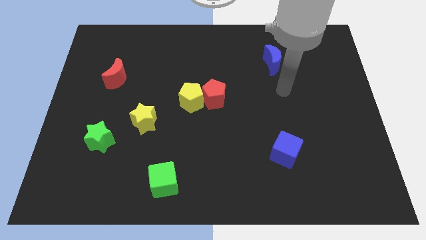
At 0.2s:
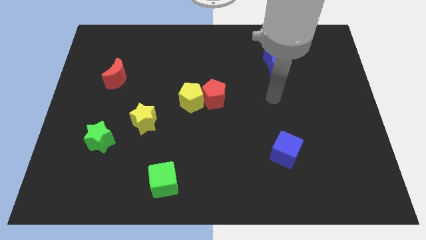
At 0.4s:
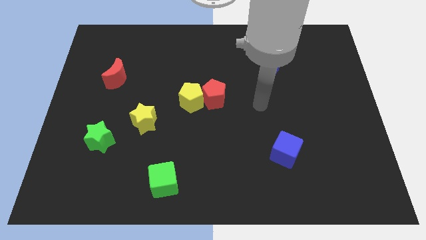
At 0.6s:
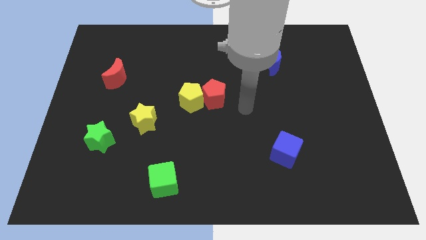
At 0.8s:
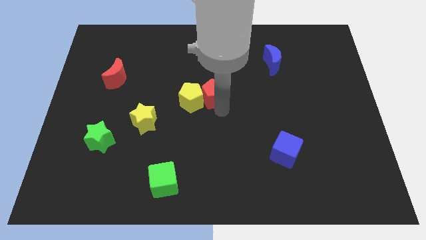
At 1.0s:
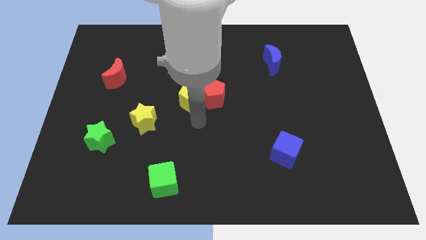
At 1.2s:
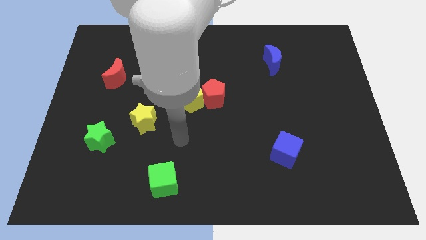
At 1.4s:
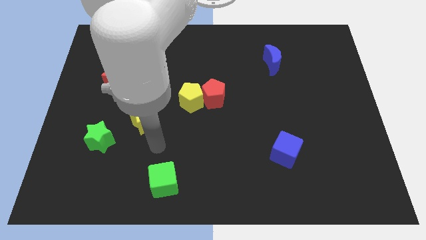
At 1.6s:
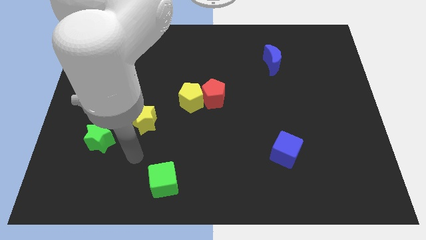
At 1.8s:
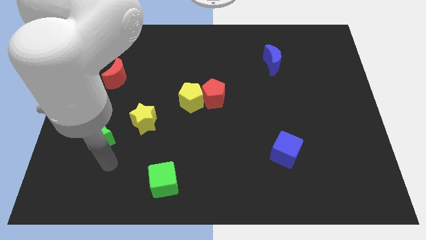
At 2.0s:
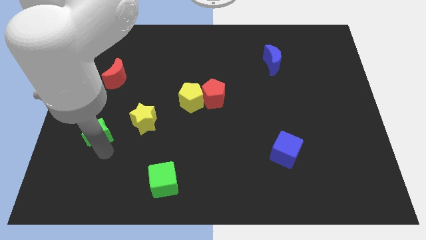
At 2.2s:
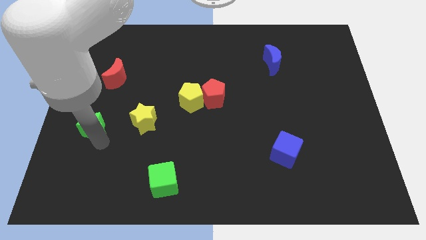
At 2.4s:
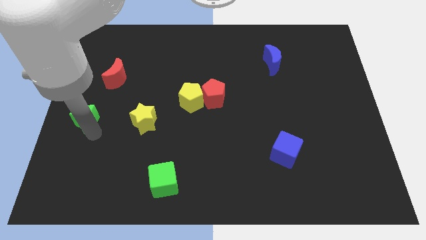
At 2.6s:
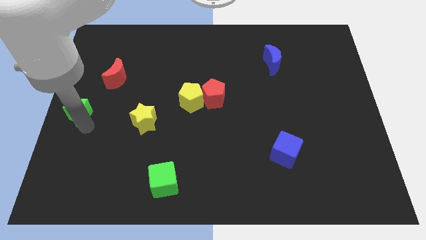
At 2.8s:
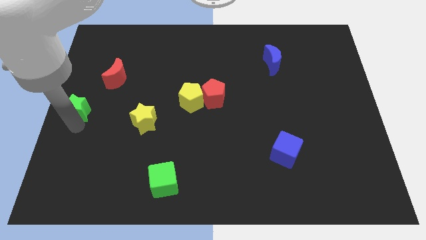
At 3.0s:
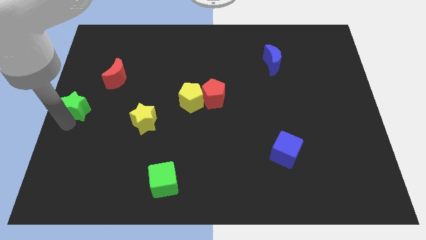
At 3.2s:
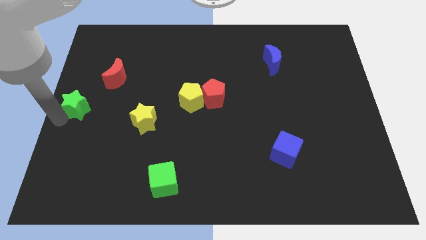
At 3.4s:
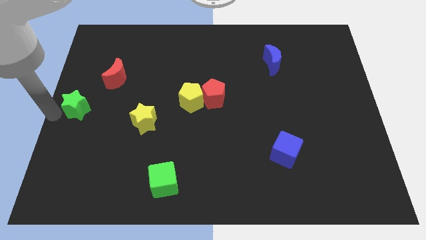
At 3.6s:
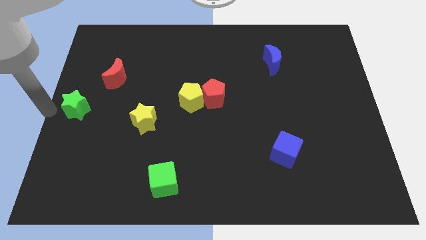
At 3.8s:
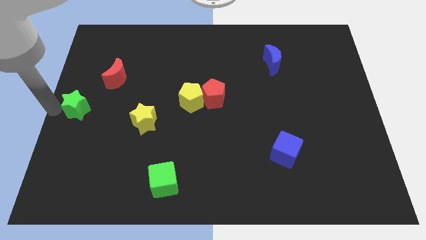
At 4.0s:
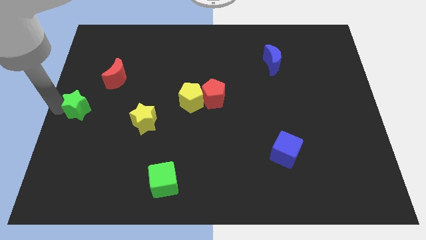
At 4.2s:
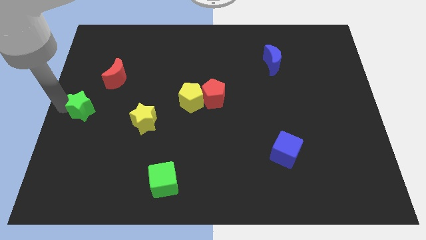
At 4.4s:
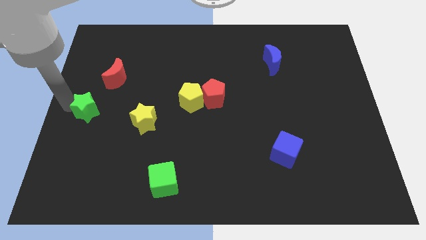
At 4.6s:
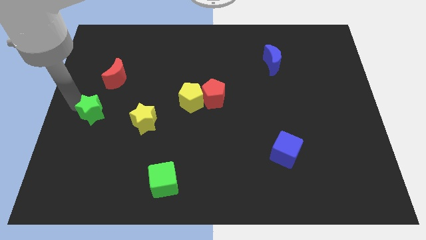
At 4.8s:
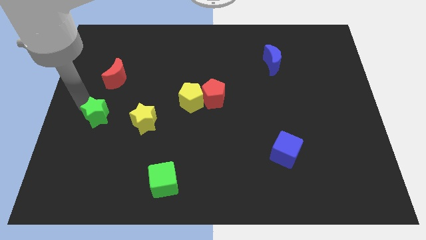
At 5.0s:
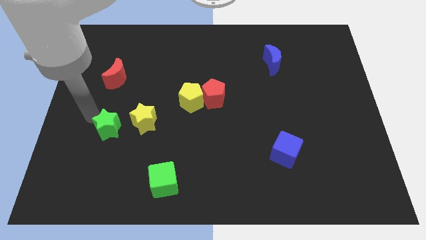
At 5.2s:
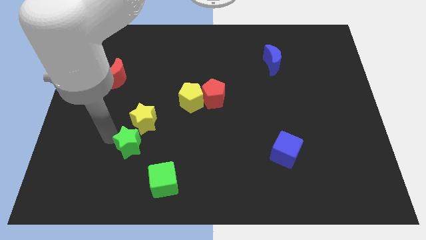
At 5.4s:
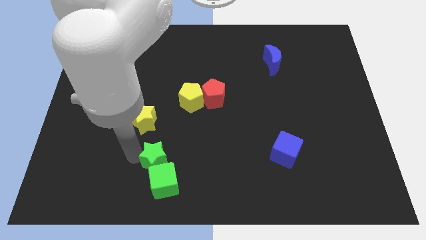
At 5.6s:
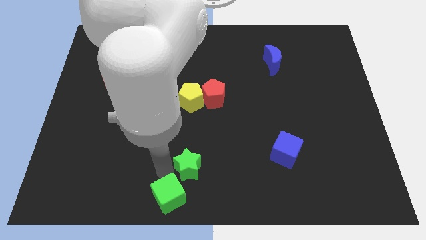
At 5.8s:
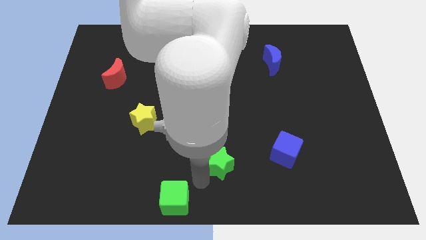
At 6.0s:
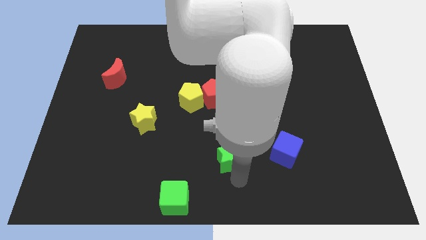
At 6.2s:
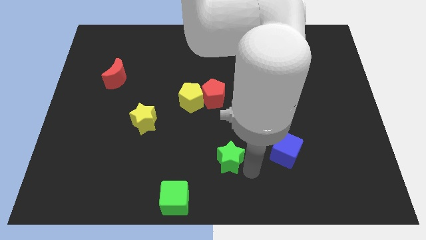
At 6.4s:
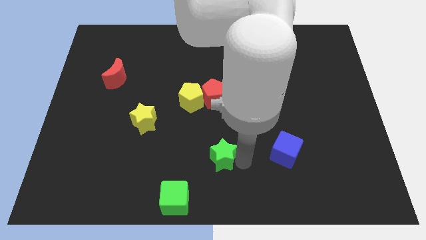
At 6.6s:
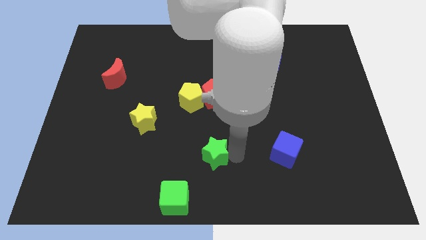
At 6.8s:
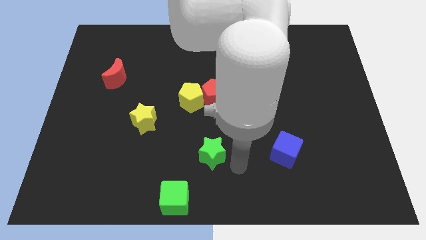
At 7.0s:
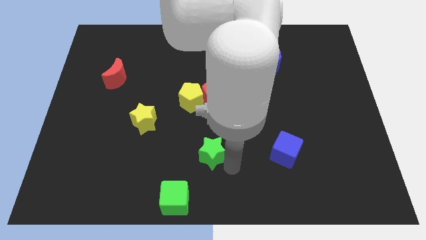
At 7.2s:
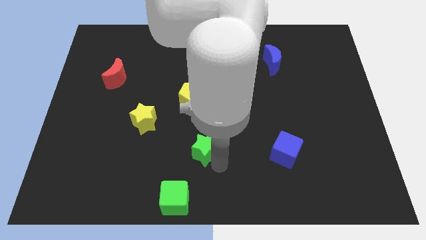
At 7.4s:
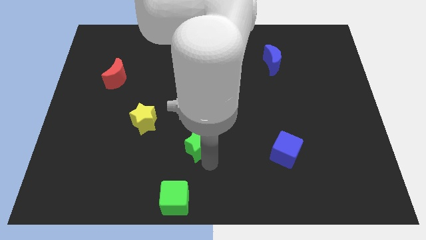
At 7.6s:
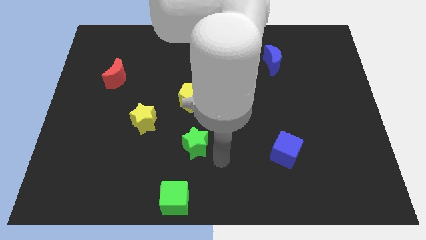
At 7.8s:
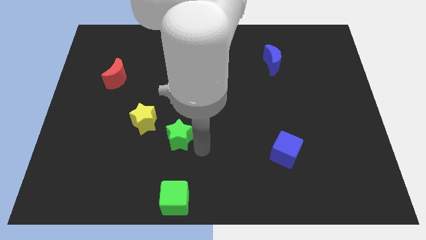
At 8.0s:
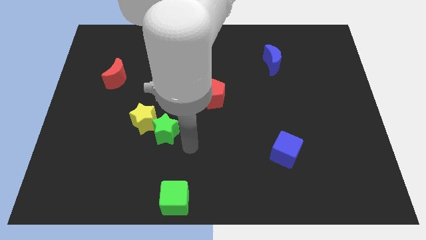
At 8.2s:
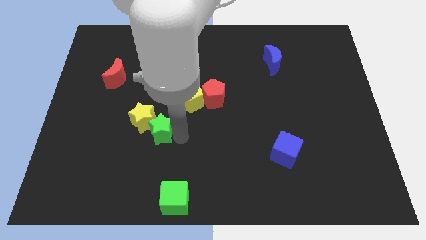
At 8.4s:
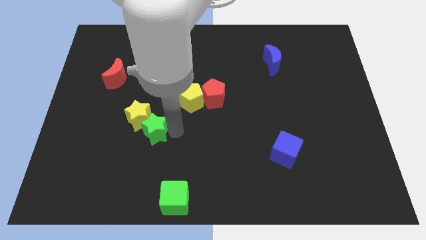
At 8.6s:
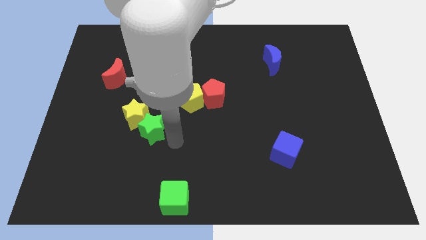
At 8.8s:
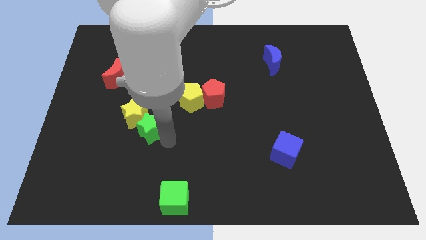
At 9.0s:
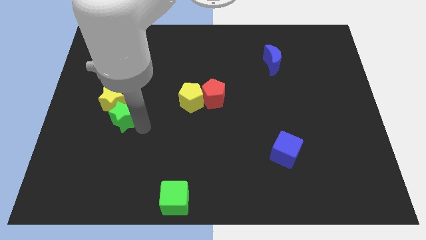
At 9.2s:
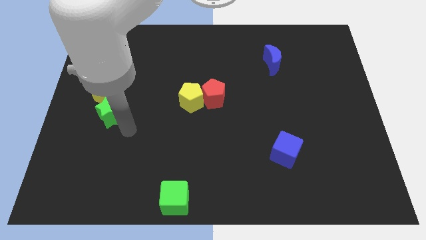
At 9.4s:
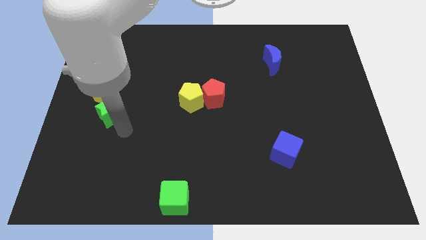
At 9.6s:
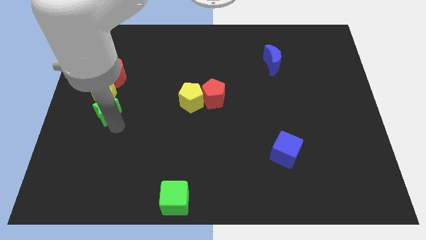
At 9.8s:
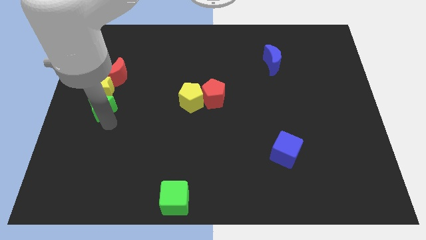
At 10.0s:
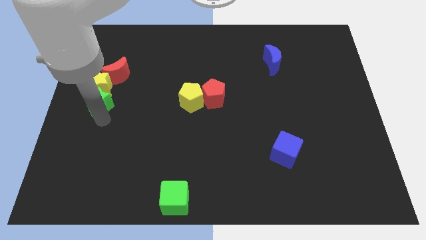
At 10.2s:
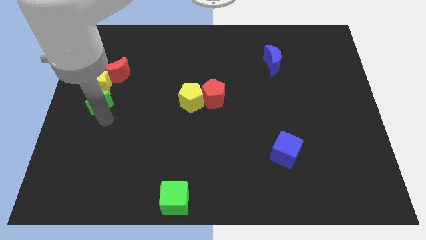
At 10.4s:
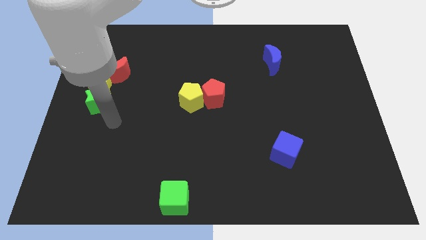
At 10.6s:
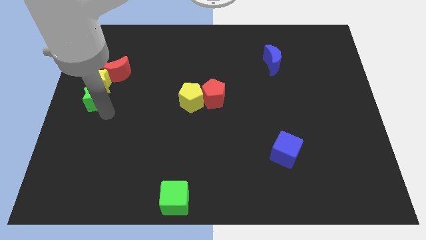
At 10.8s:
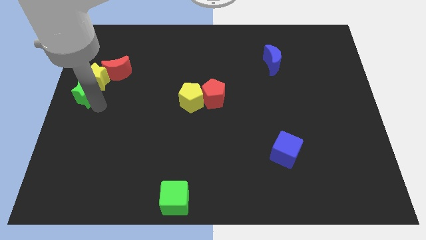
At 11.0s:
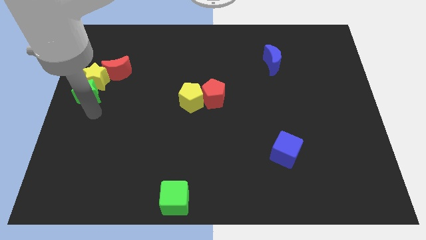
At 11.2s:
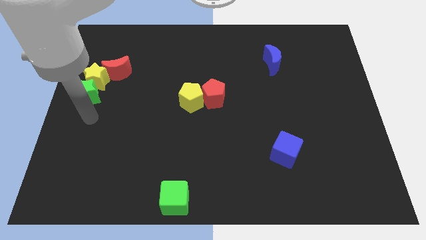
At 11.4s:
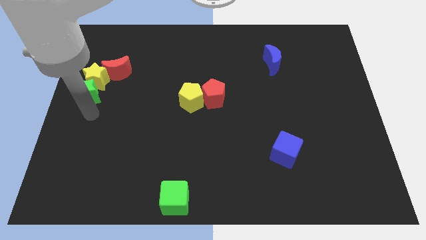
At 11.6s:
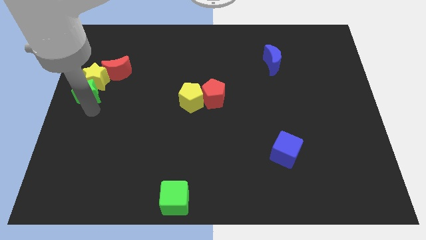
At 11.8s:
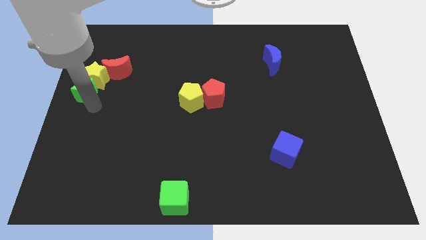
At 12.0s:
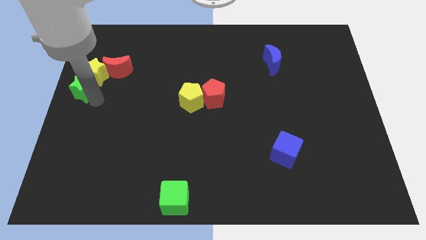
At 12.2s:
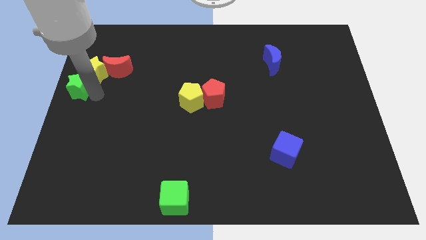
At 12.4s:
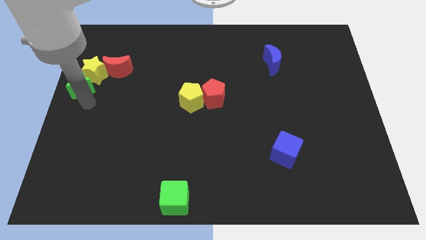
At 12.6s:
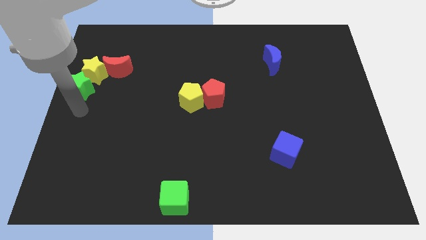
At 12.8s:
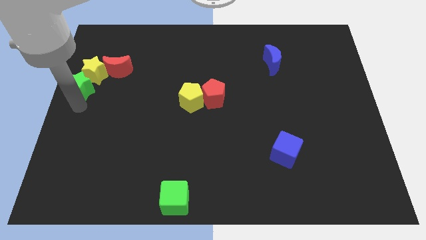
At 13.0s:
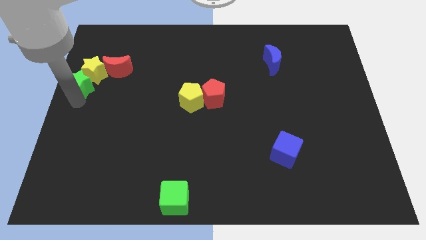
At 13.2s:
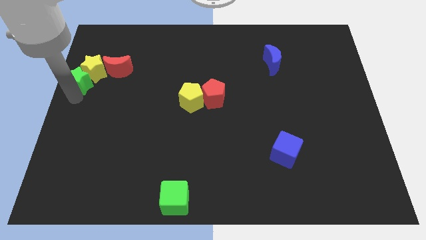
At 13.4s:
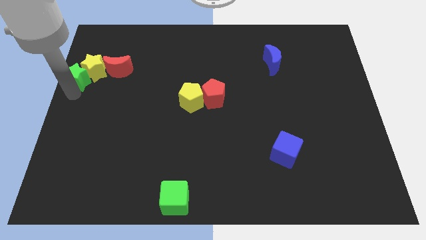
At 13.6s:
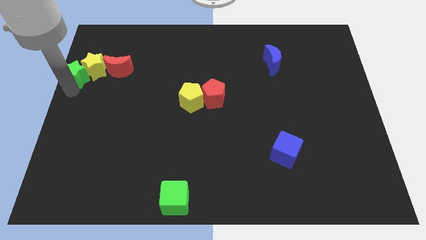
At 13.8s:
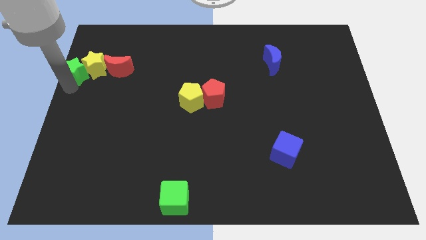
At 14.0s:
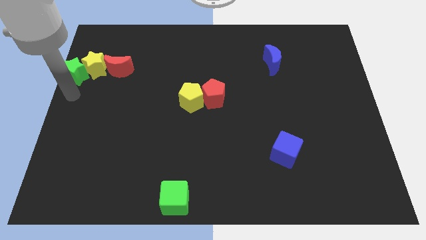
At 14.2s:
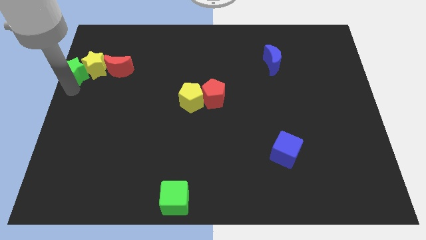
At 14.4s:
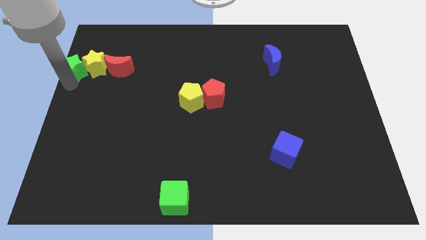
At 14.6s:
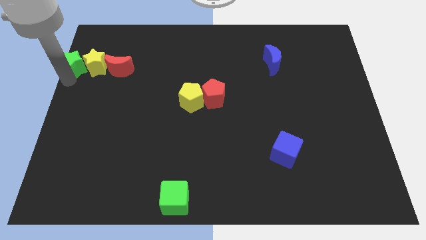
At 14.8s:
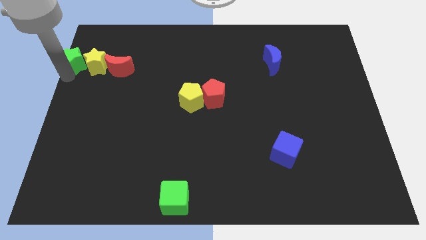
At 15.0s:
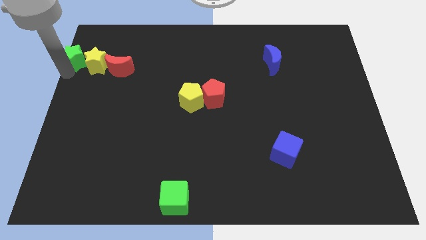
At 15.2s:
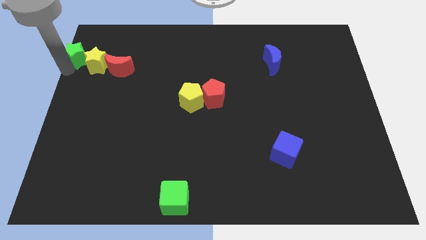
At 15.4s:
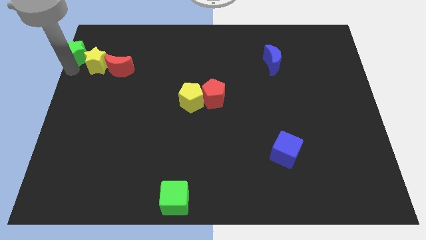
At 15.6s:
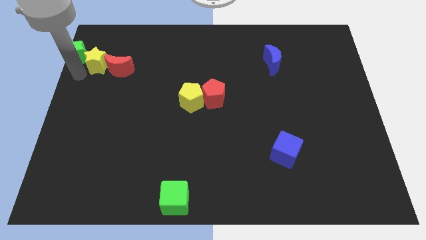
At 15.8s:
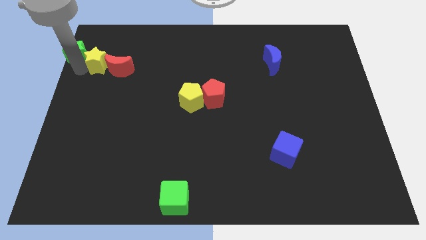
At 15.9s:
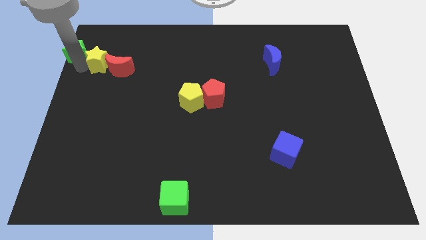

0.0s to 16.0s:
slide the green star to the top left
